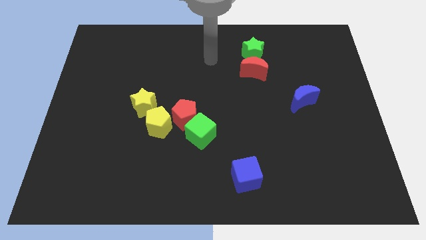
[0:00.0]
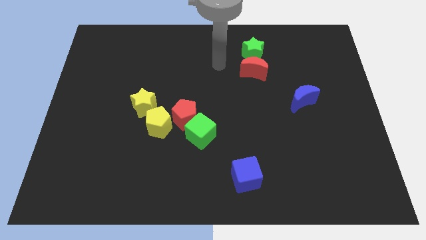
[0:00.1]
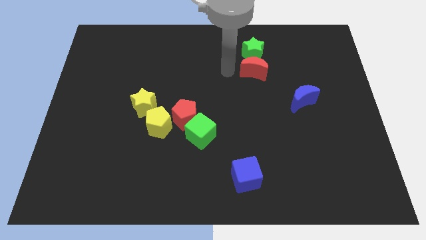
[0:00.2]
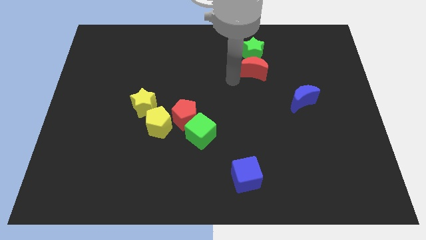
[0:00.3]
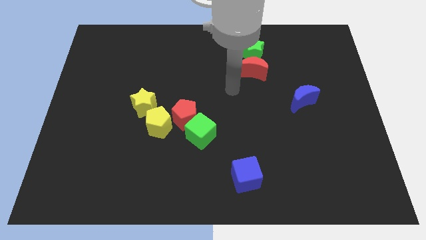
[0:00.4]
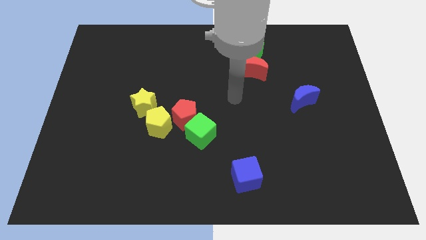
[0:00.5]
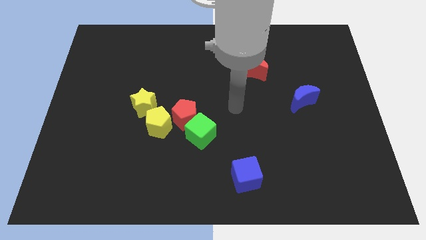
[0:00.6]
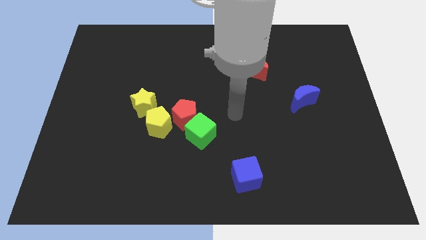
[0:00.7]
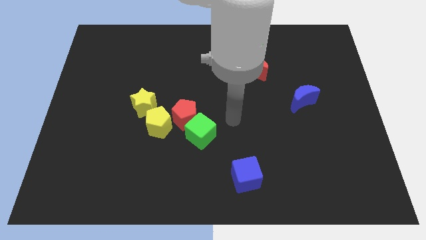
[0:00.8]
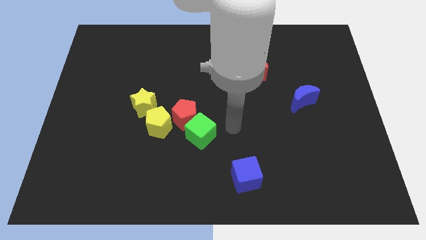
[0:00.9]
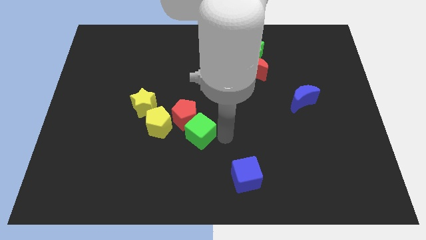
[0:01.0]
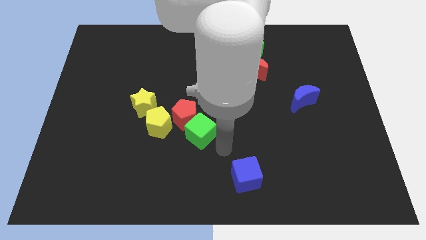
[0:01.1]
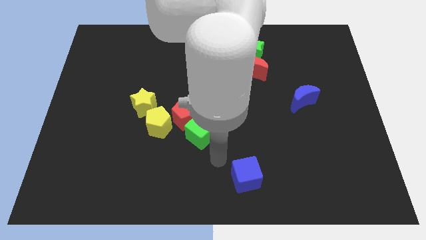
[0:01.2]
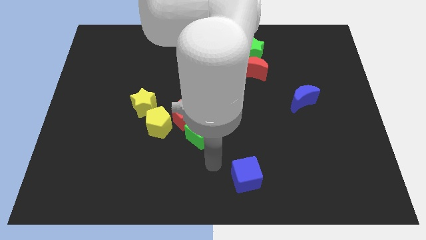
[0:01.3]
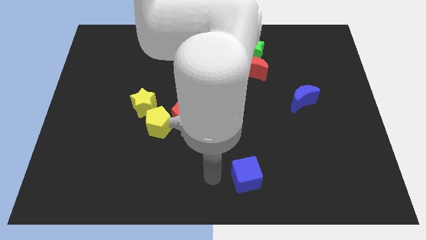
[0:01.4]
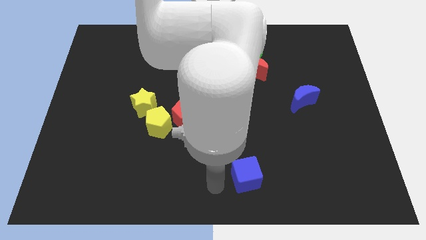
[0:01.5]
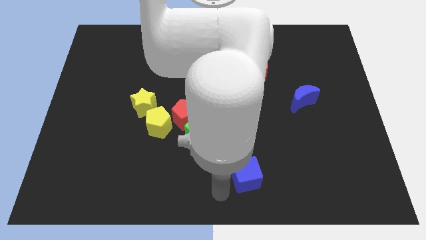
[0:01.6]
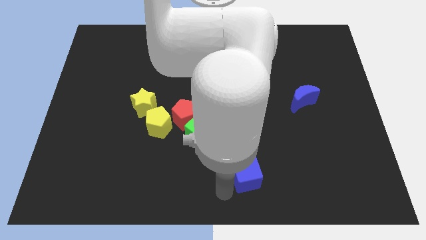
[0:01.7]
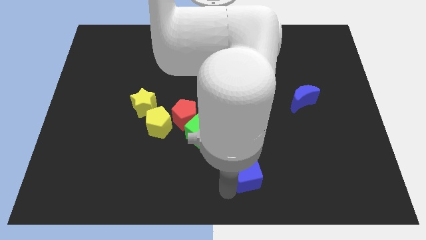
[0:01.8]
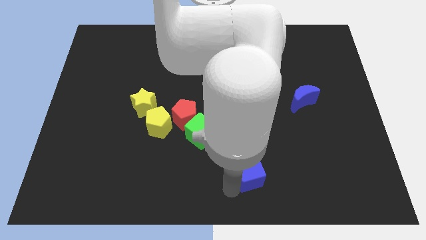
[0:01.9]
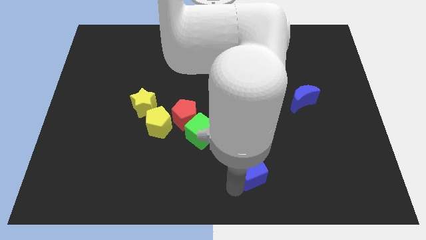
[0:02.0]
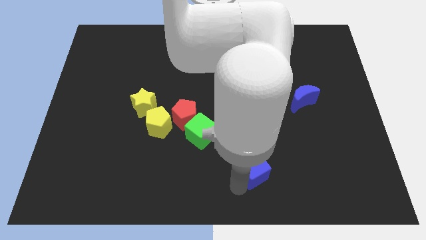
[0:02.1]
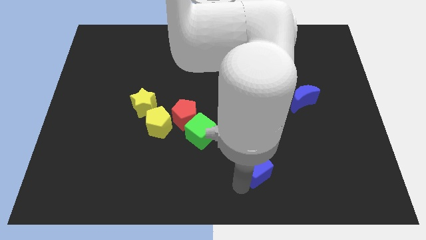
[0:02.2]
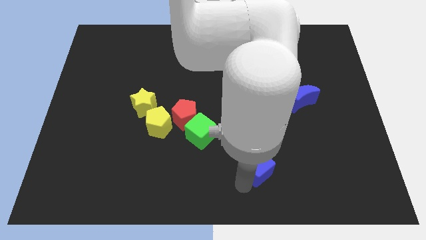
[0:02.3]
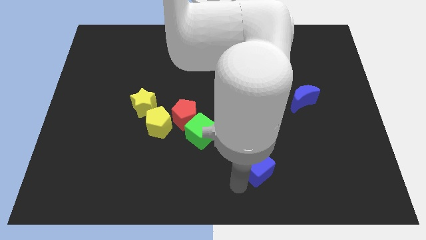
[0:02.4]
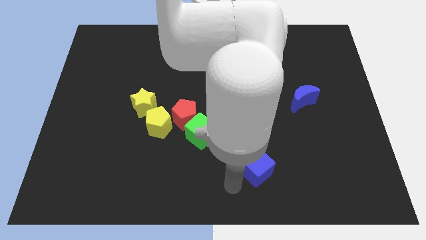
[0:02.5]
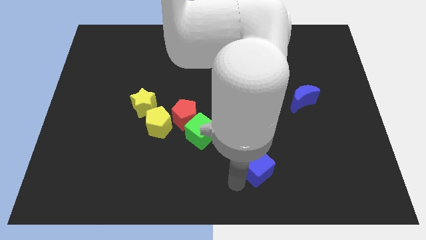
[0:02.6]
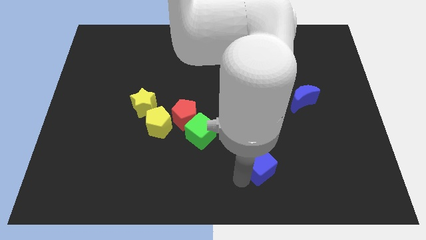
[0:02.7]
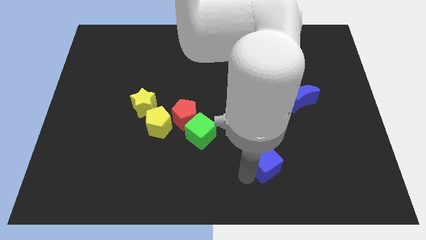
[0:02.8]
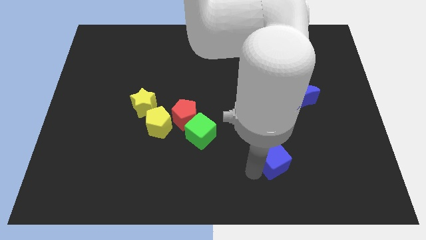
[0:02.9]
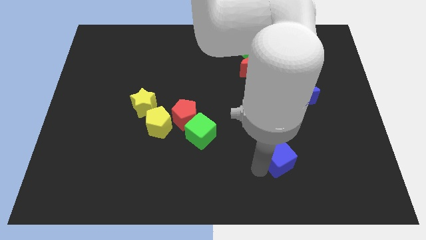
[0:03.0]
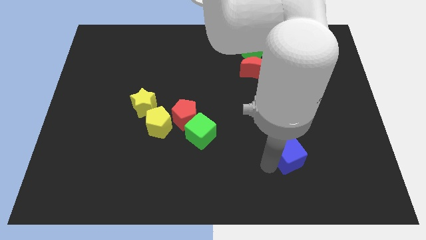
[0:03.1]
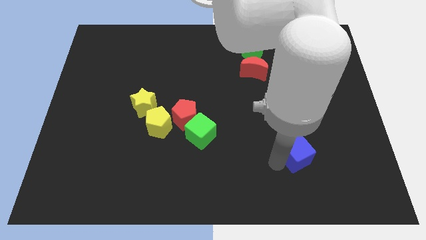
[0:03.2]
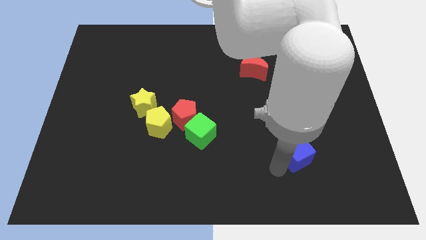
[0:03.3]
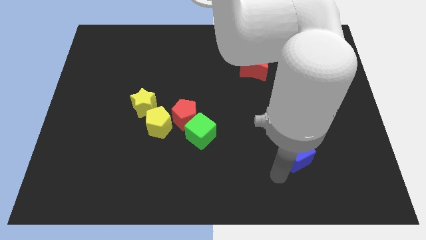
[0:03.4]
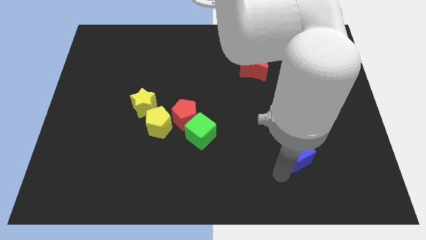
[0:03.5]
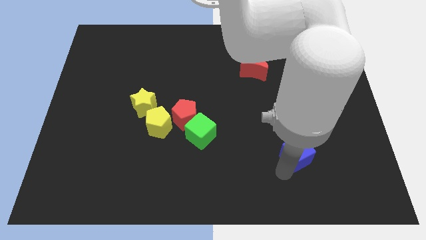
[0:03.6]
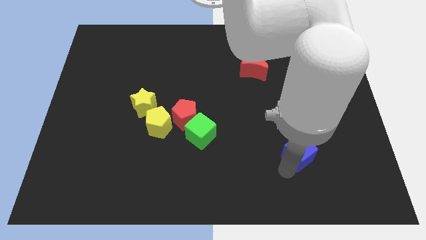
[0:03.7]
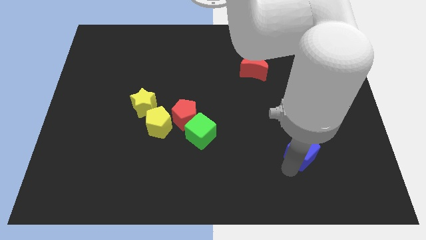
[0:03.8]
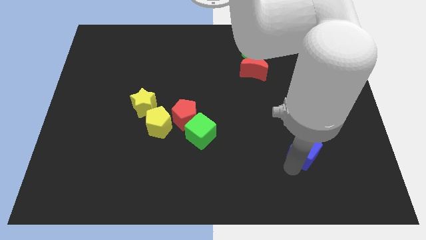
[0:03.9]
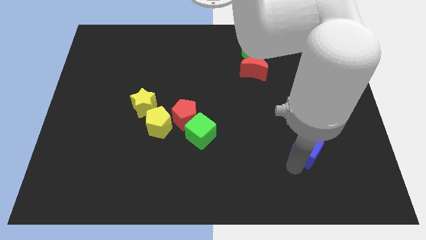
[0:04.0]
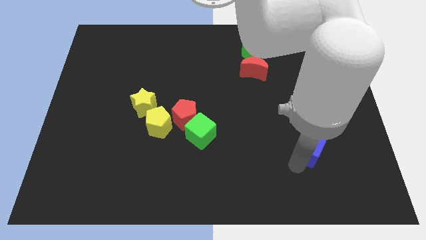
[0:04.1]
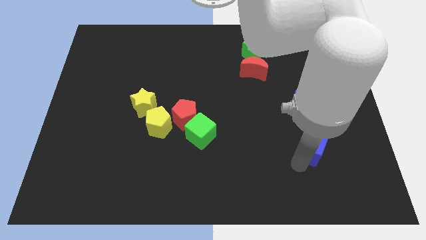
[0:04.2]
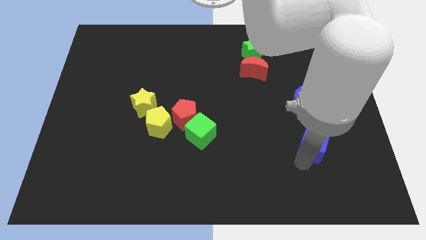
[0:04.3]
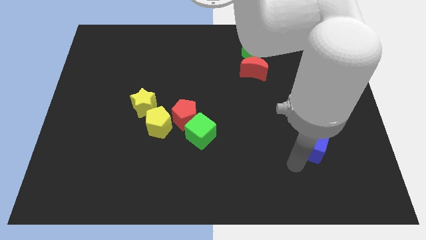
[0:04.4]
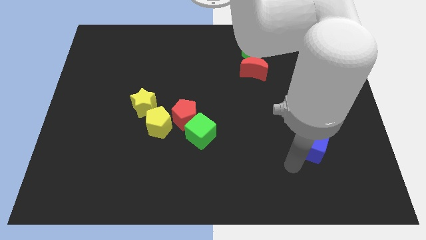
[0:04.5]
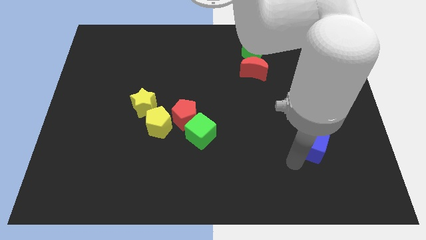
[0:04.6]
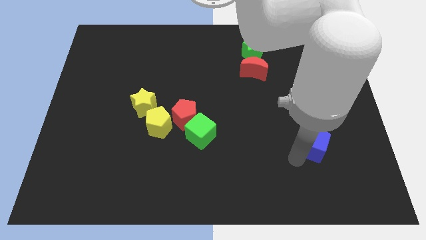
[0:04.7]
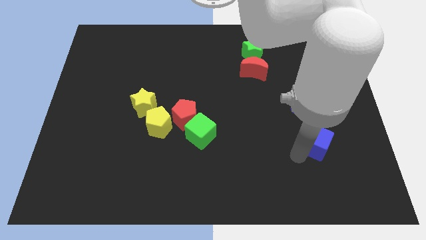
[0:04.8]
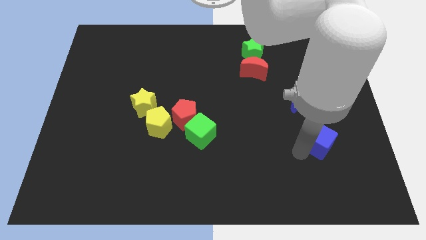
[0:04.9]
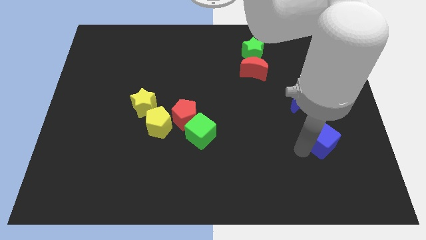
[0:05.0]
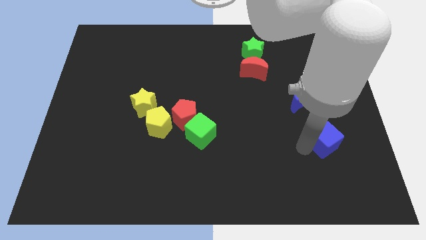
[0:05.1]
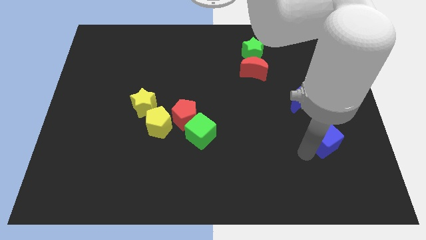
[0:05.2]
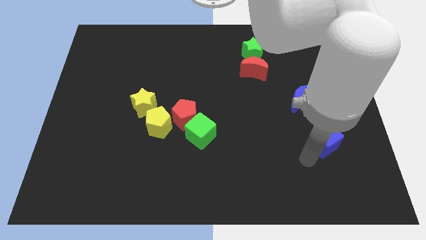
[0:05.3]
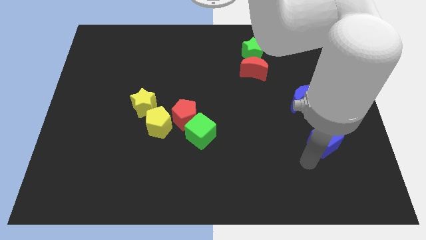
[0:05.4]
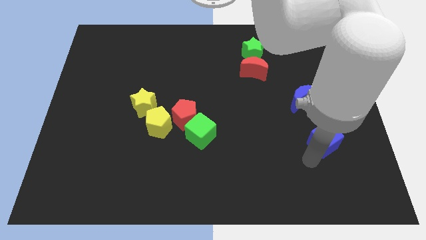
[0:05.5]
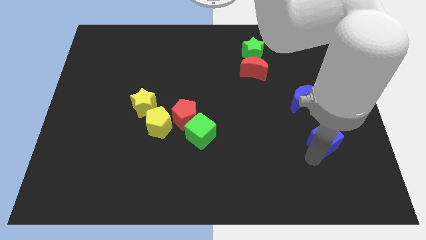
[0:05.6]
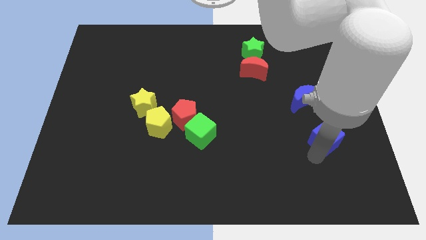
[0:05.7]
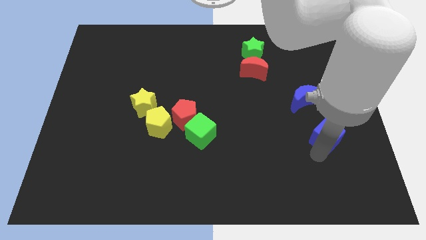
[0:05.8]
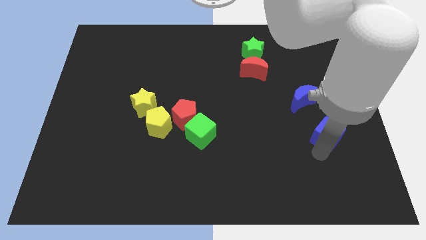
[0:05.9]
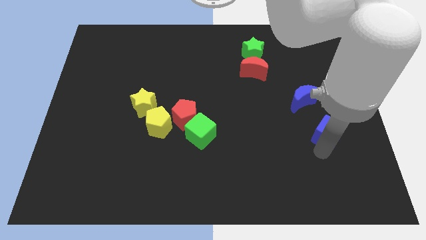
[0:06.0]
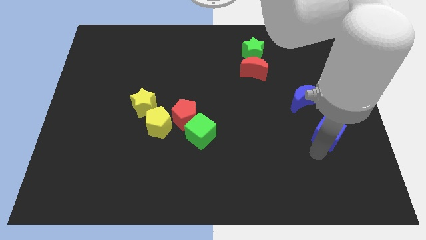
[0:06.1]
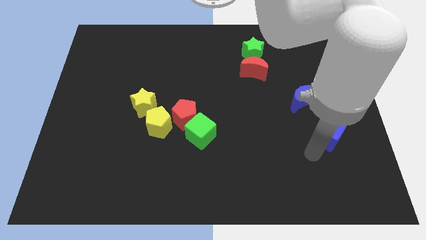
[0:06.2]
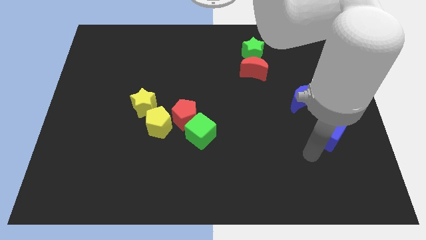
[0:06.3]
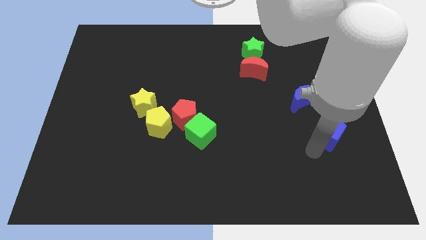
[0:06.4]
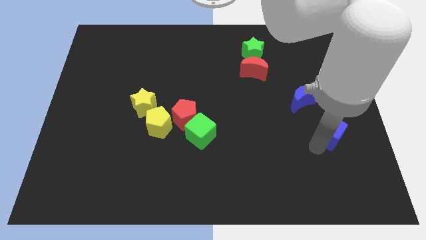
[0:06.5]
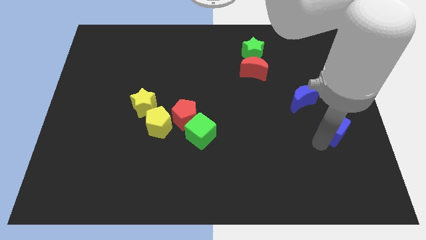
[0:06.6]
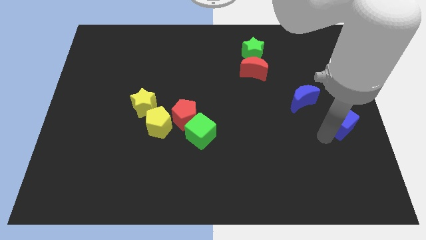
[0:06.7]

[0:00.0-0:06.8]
slide the blue cube to the center right
